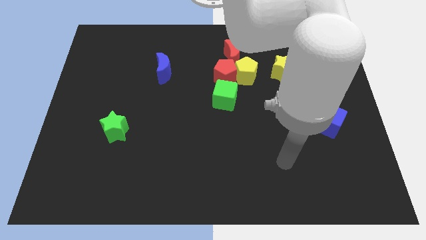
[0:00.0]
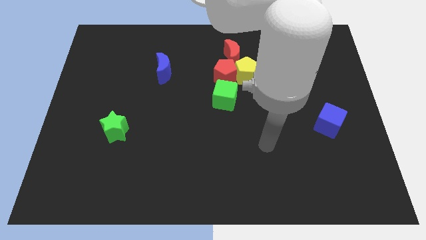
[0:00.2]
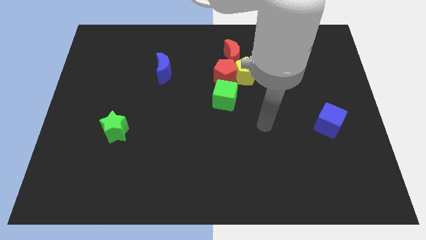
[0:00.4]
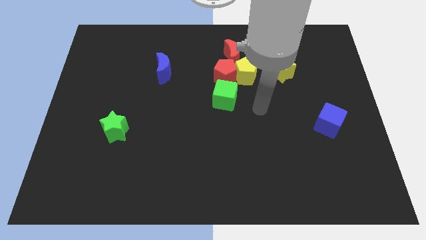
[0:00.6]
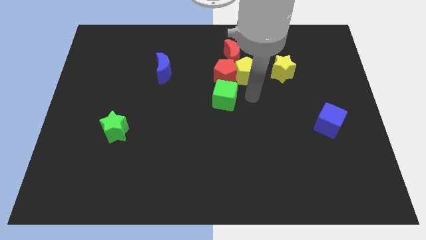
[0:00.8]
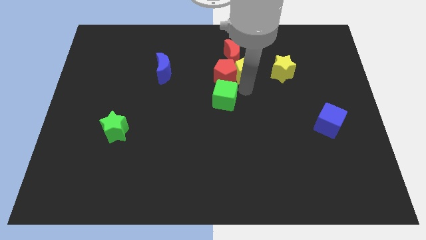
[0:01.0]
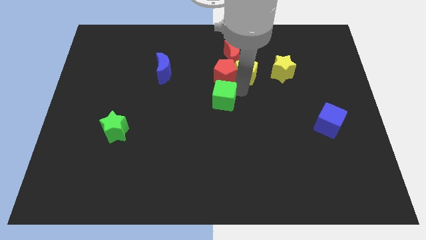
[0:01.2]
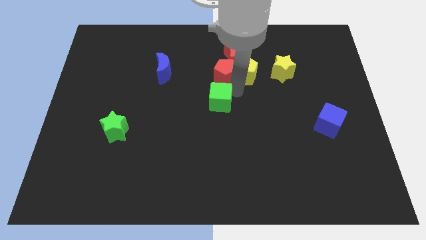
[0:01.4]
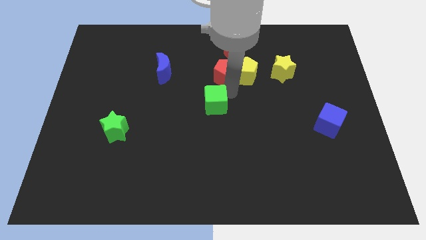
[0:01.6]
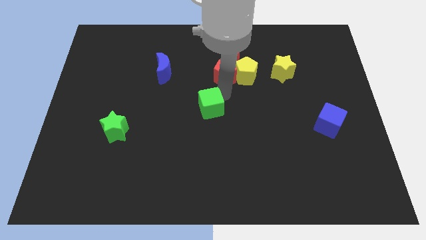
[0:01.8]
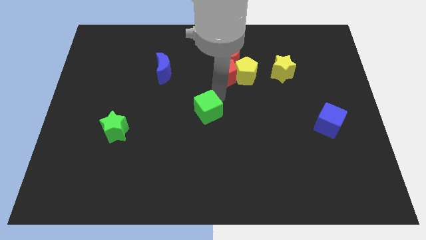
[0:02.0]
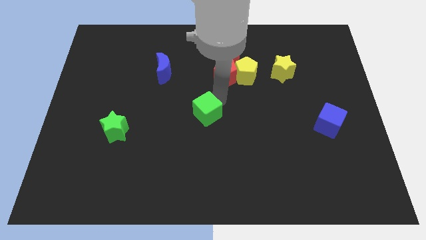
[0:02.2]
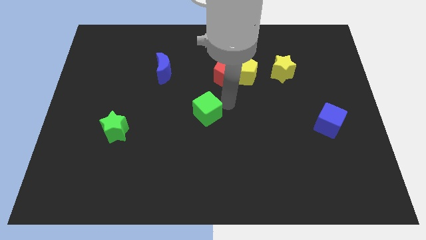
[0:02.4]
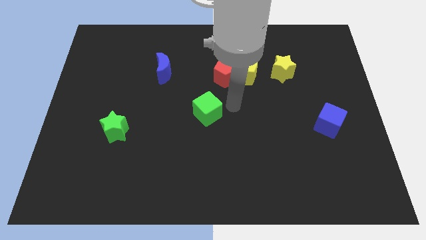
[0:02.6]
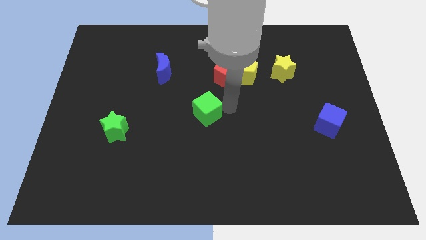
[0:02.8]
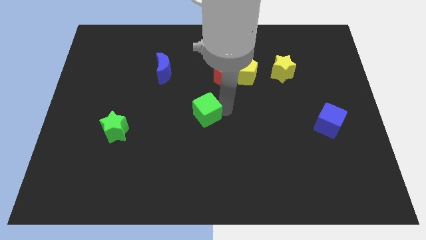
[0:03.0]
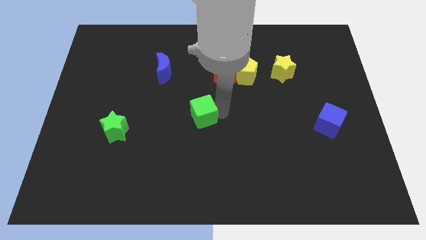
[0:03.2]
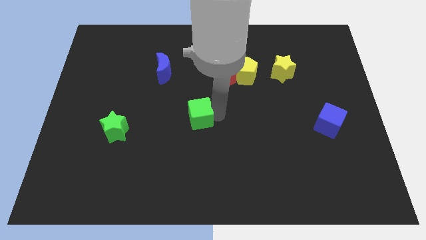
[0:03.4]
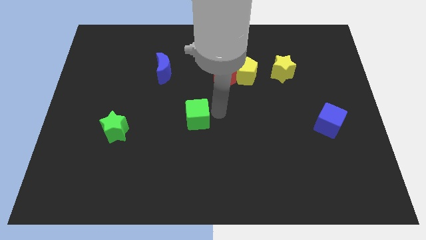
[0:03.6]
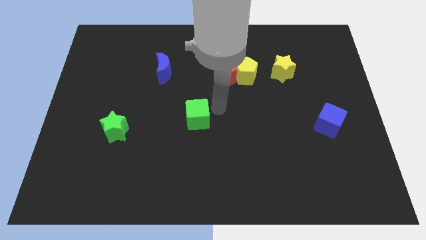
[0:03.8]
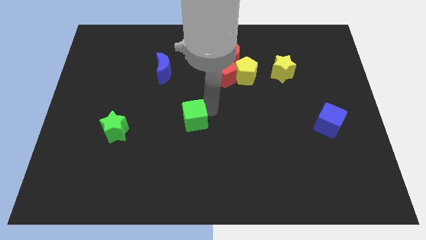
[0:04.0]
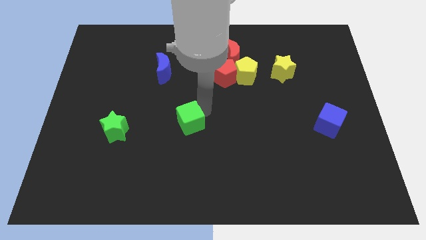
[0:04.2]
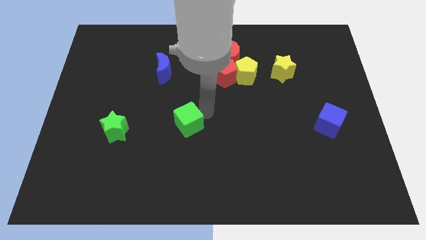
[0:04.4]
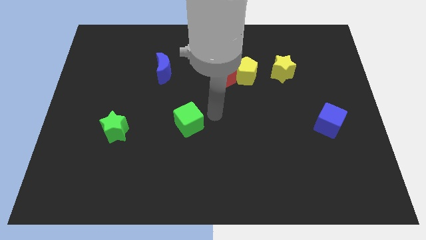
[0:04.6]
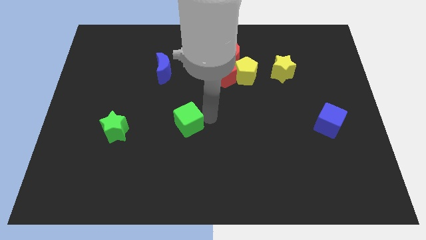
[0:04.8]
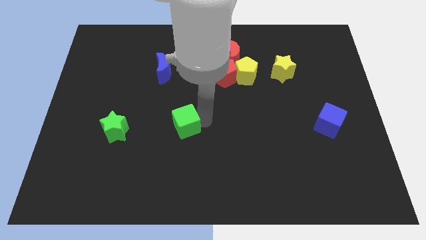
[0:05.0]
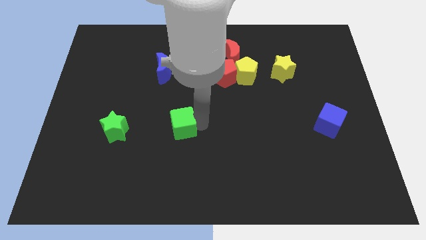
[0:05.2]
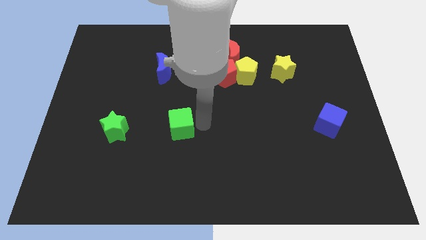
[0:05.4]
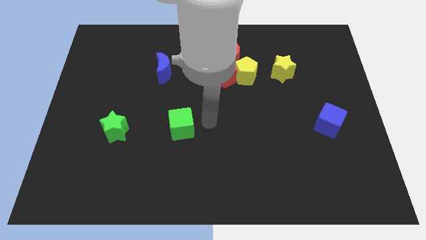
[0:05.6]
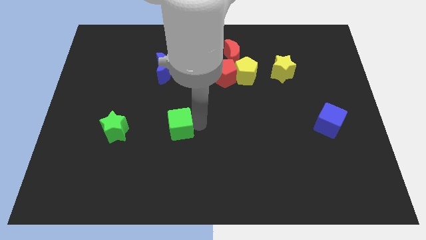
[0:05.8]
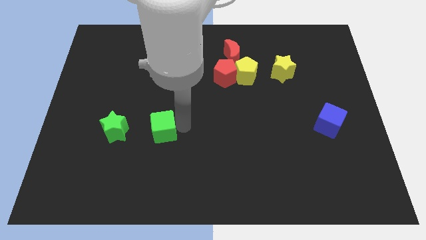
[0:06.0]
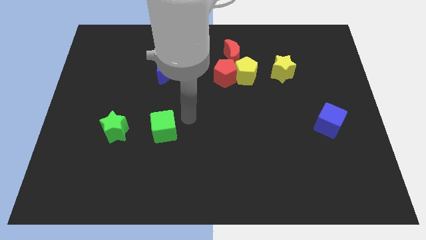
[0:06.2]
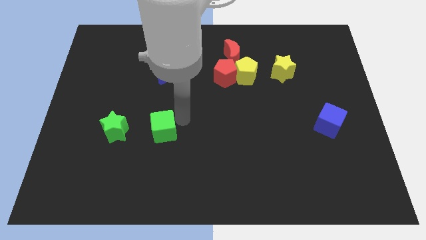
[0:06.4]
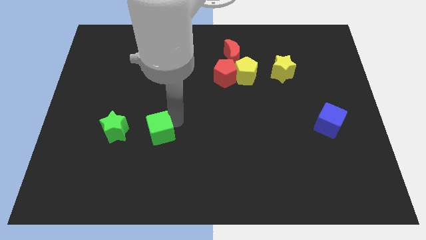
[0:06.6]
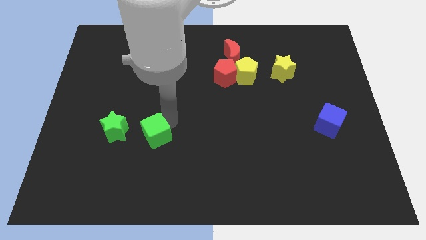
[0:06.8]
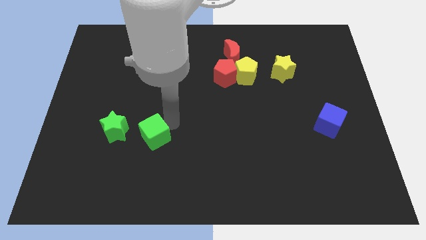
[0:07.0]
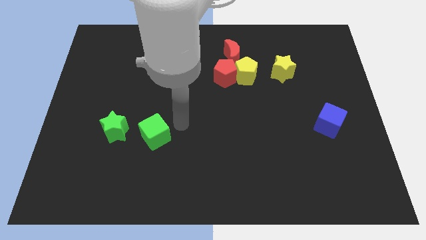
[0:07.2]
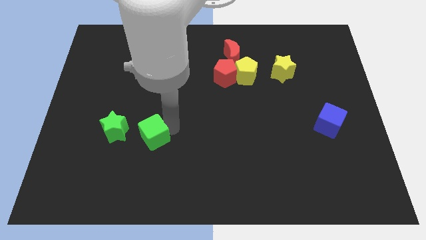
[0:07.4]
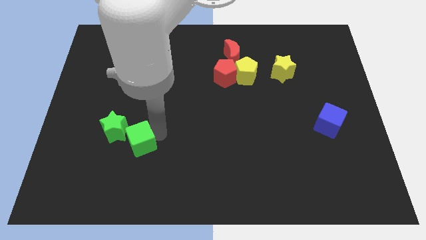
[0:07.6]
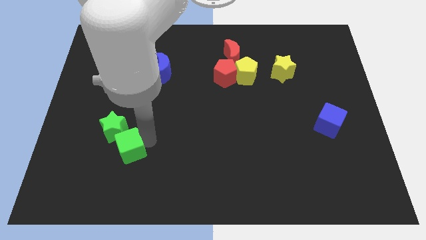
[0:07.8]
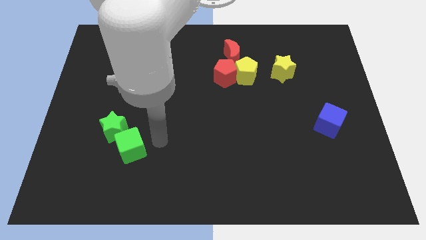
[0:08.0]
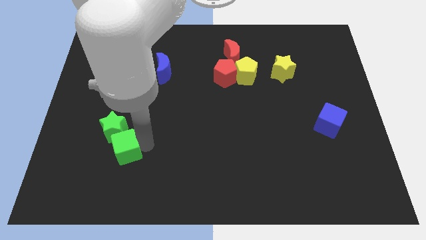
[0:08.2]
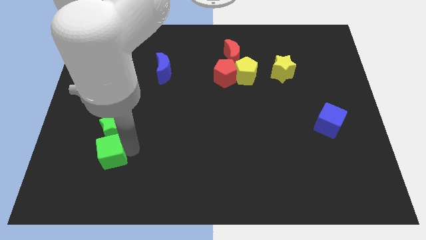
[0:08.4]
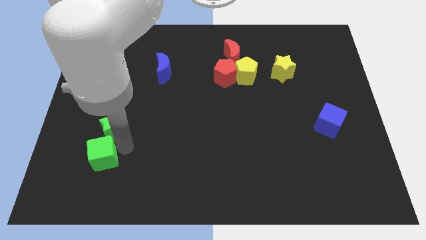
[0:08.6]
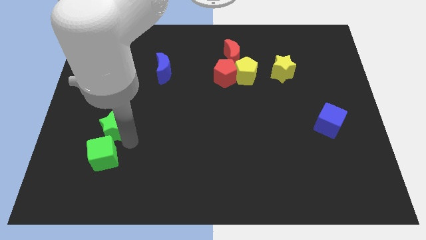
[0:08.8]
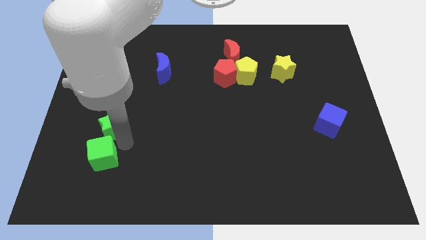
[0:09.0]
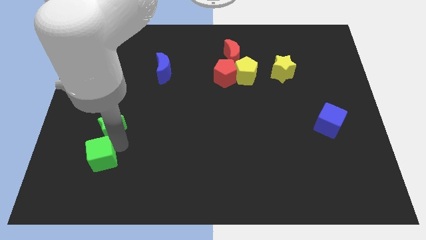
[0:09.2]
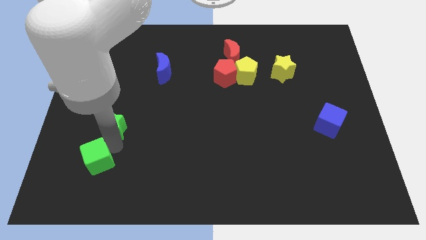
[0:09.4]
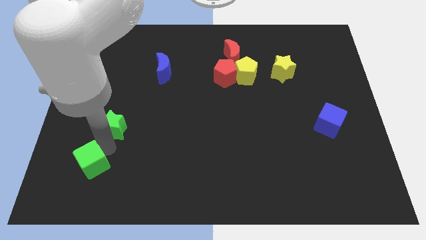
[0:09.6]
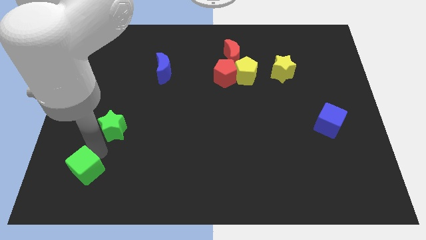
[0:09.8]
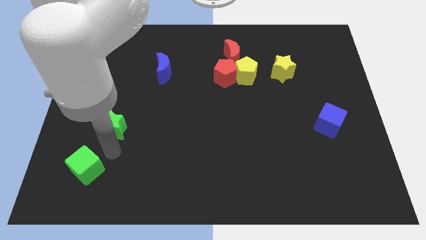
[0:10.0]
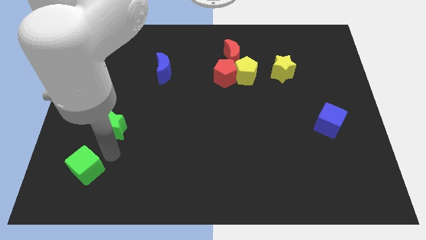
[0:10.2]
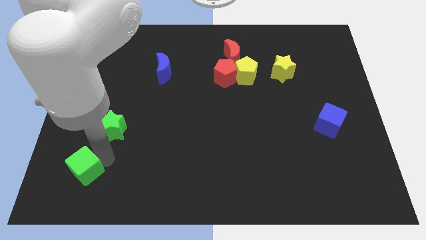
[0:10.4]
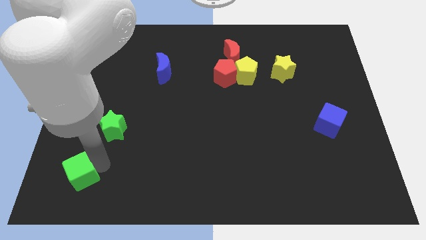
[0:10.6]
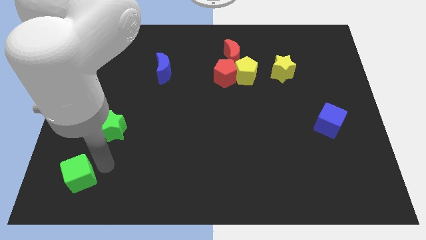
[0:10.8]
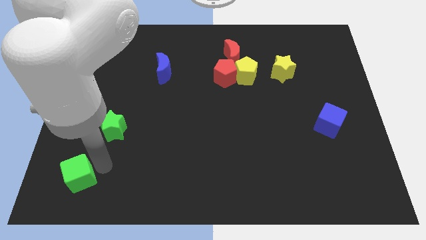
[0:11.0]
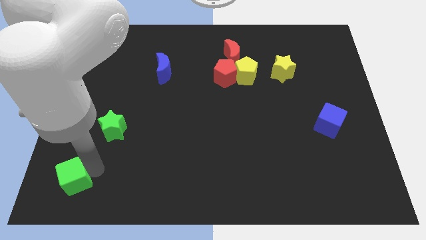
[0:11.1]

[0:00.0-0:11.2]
push the green cube to the bottom left of the board

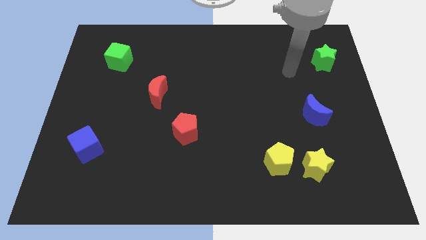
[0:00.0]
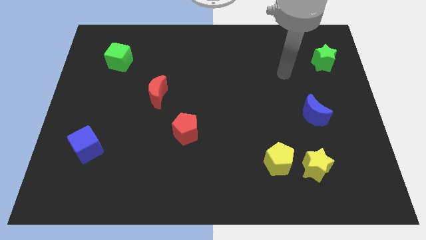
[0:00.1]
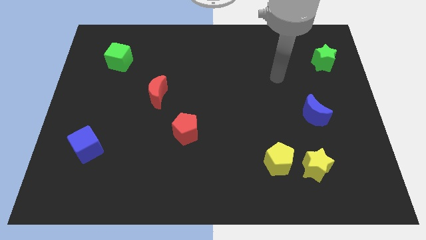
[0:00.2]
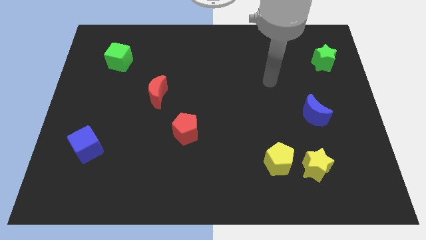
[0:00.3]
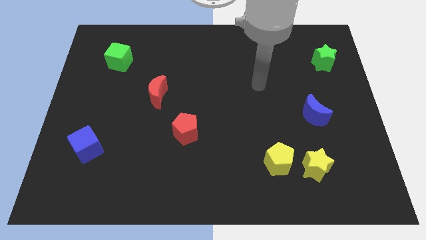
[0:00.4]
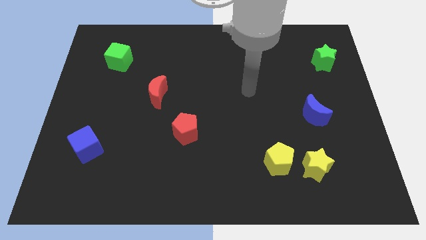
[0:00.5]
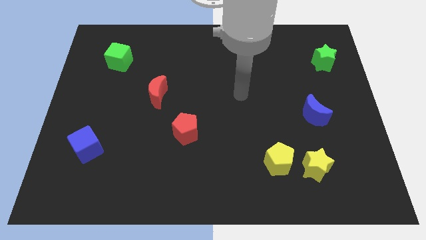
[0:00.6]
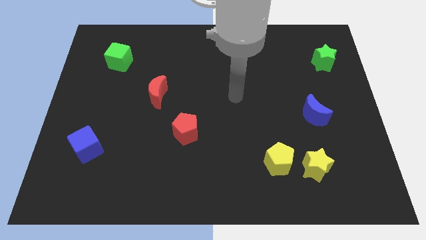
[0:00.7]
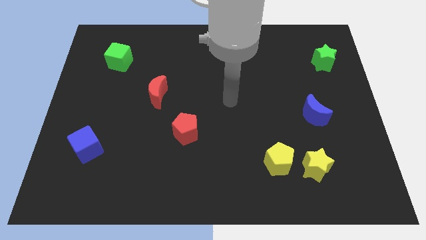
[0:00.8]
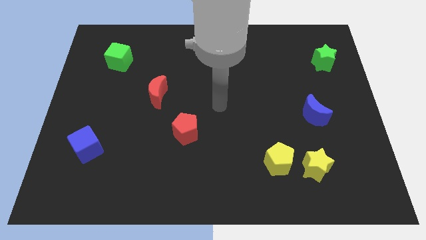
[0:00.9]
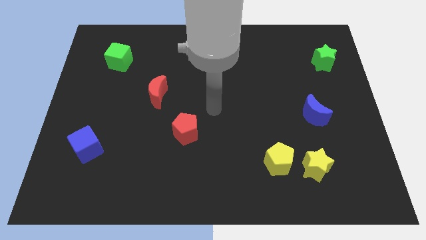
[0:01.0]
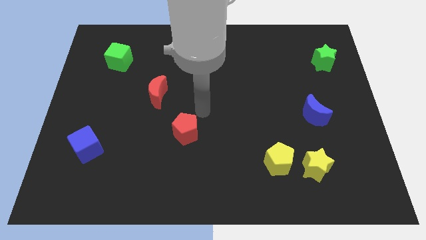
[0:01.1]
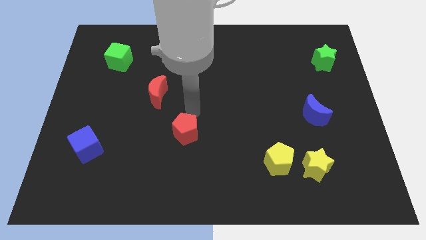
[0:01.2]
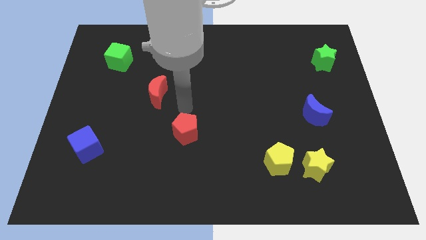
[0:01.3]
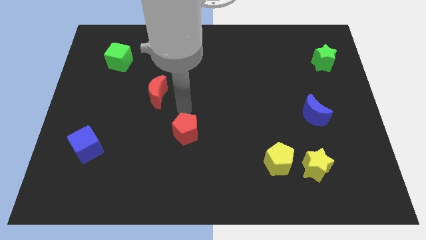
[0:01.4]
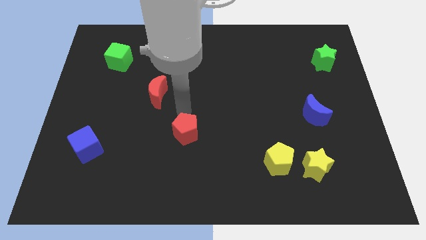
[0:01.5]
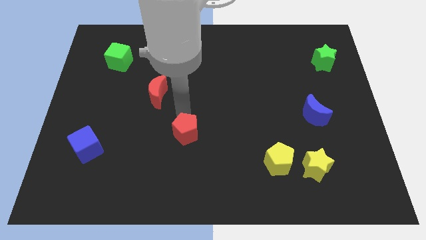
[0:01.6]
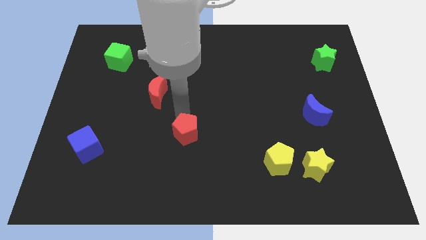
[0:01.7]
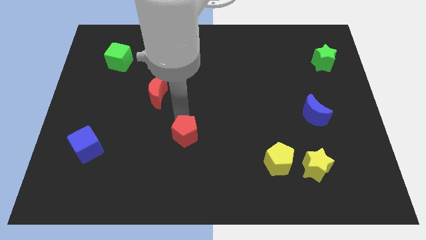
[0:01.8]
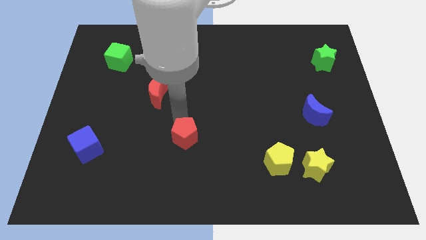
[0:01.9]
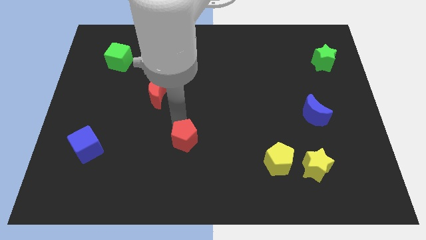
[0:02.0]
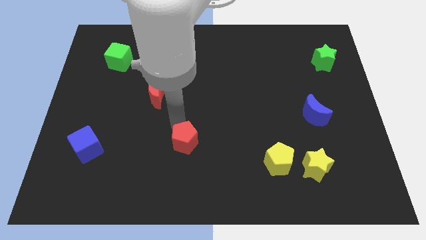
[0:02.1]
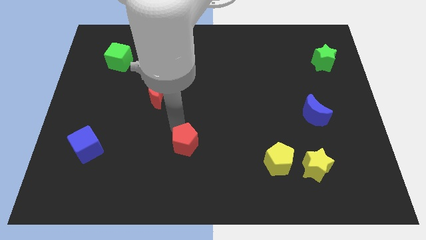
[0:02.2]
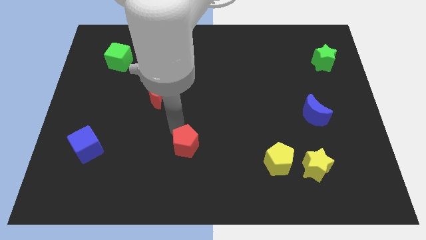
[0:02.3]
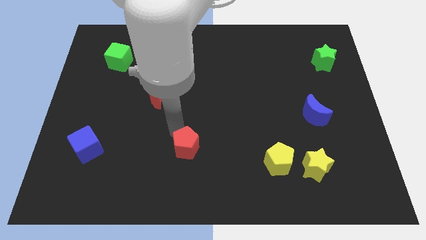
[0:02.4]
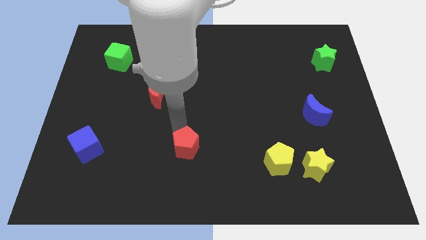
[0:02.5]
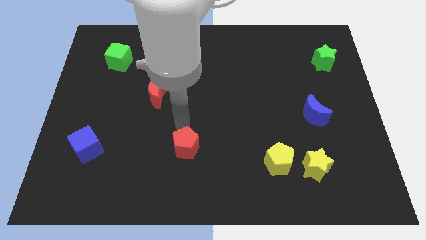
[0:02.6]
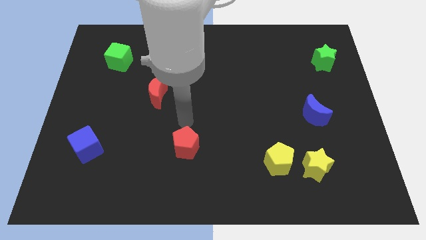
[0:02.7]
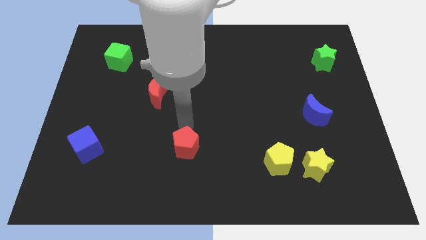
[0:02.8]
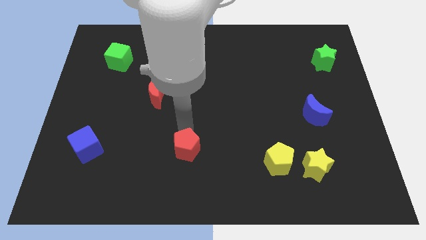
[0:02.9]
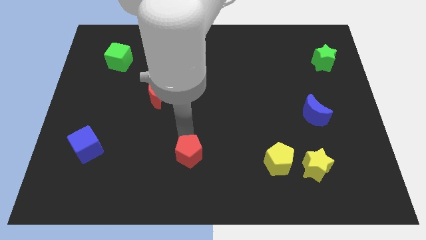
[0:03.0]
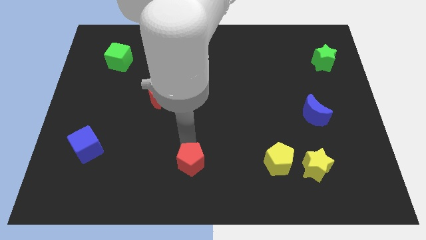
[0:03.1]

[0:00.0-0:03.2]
slide the red pentagon to the bottom side
